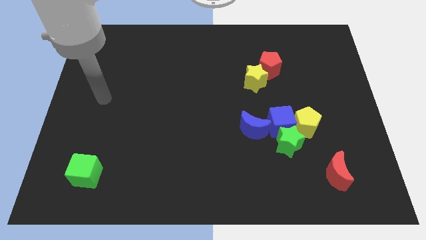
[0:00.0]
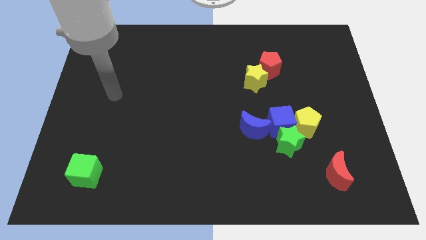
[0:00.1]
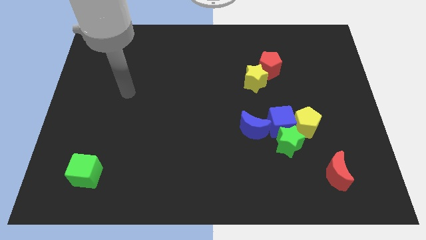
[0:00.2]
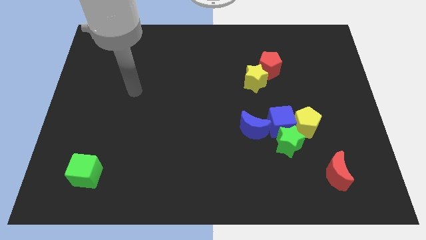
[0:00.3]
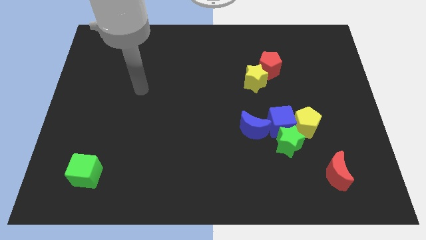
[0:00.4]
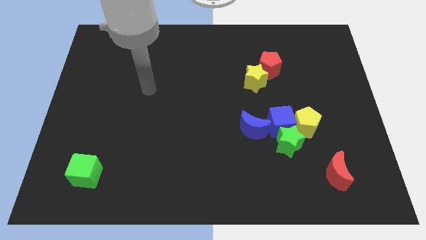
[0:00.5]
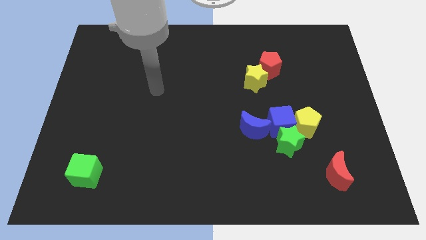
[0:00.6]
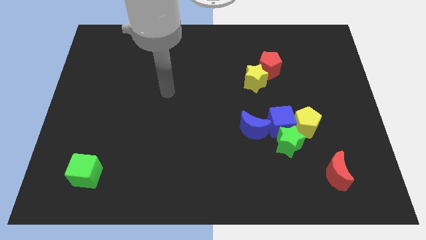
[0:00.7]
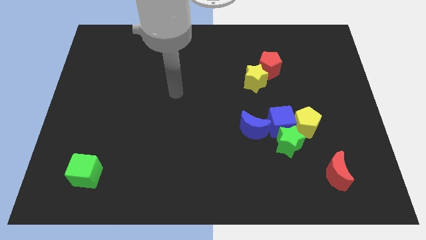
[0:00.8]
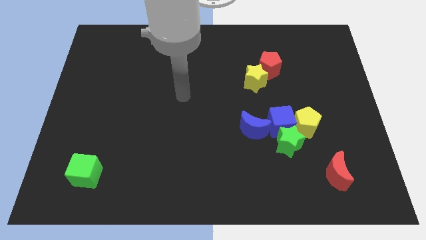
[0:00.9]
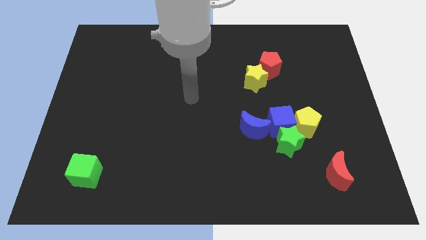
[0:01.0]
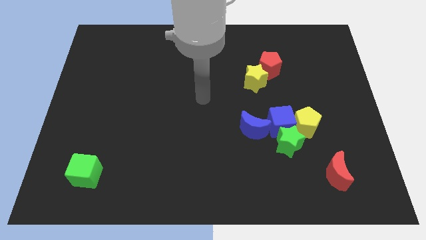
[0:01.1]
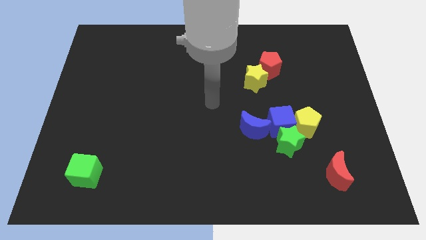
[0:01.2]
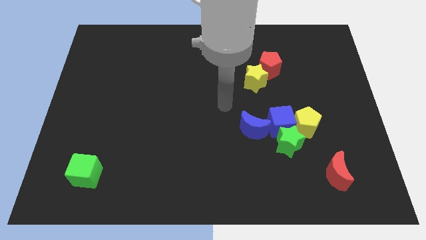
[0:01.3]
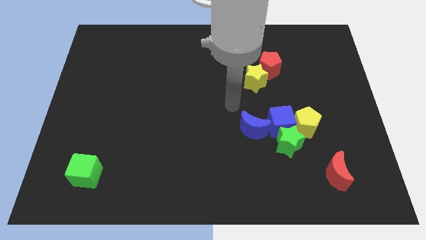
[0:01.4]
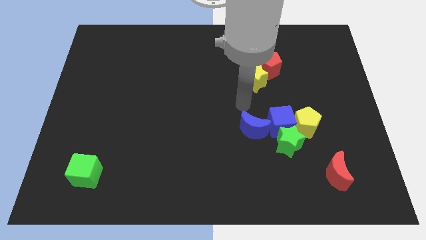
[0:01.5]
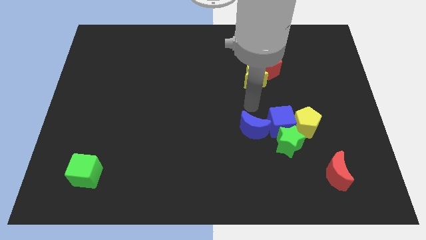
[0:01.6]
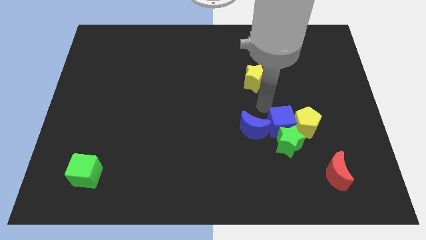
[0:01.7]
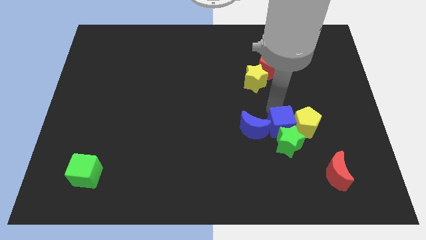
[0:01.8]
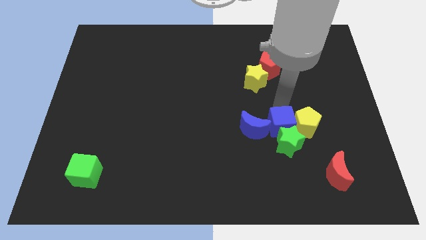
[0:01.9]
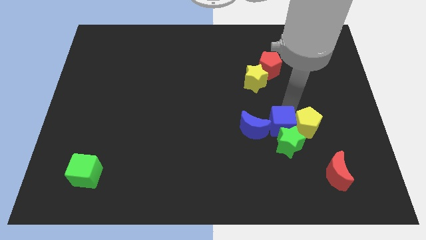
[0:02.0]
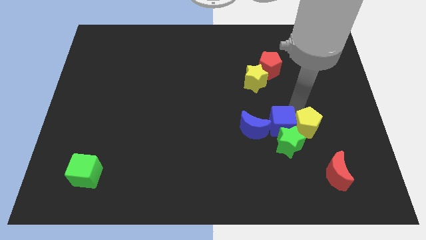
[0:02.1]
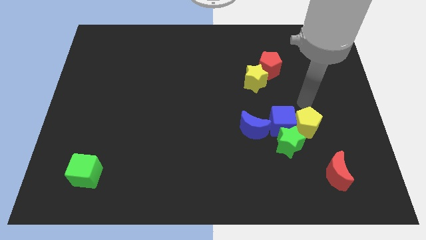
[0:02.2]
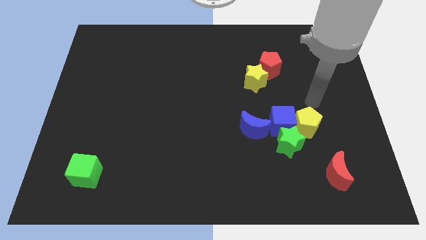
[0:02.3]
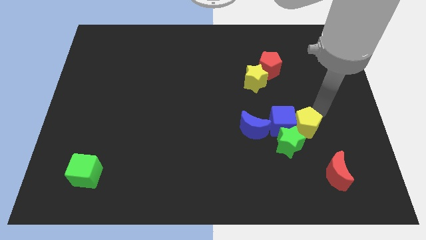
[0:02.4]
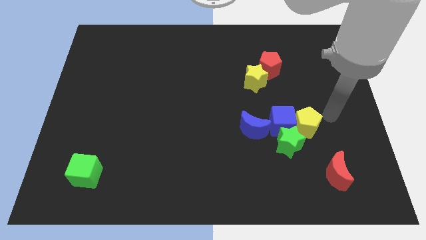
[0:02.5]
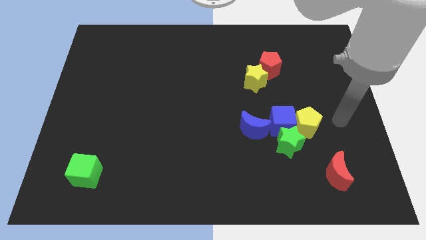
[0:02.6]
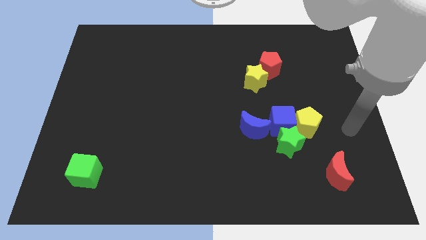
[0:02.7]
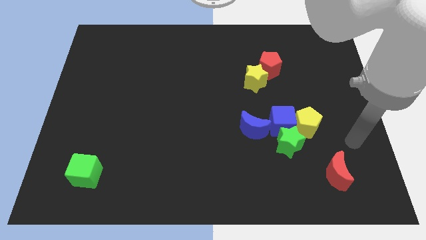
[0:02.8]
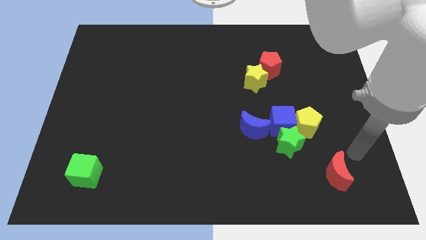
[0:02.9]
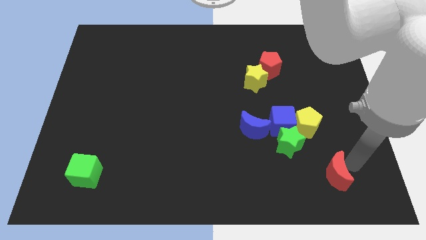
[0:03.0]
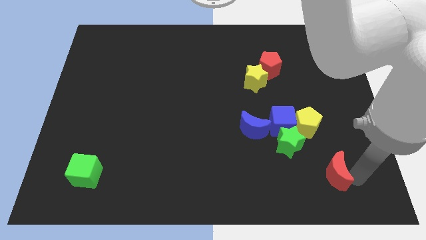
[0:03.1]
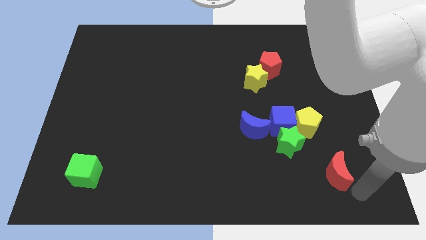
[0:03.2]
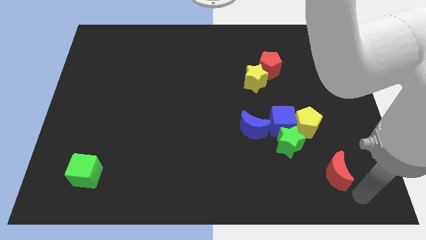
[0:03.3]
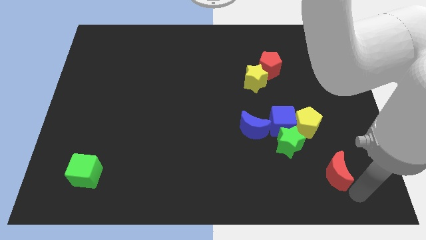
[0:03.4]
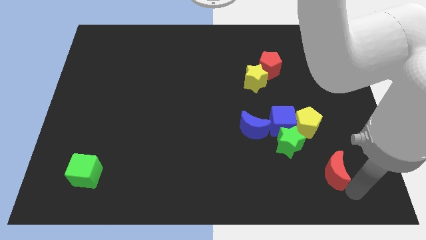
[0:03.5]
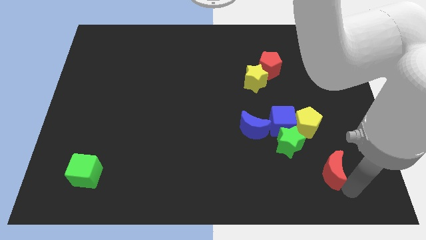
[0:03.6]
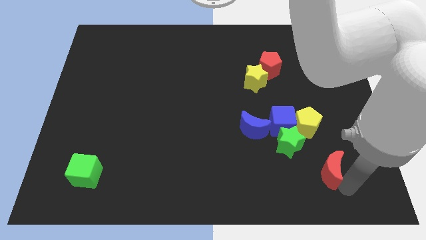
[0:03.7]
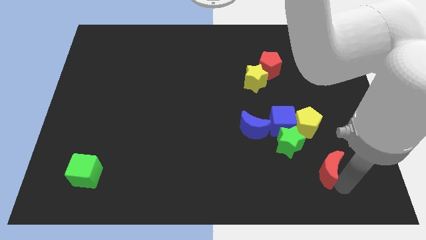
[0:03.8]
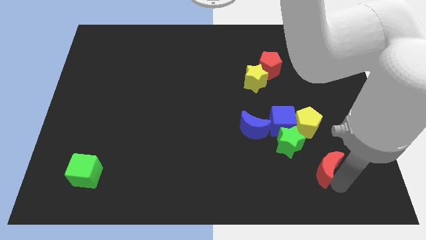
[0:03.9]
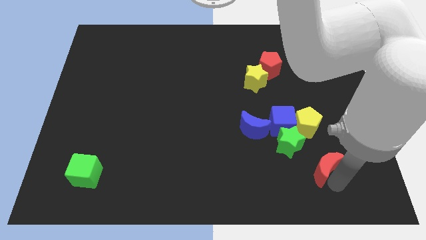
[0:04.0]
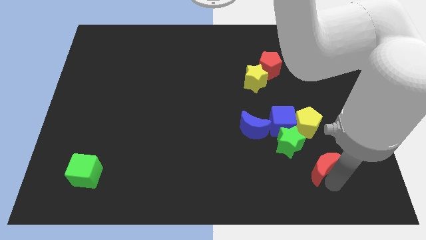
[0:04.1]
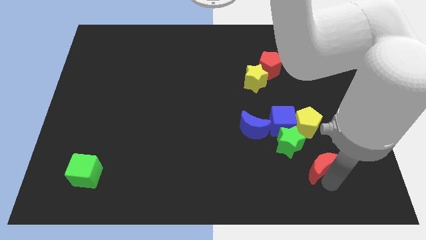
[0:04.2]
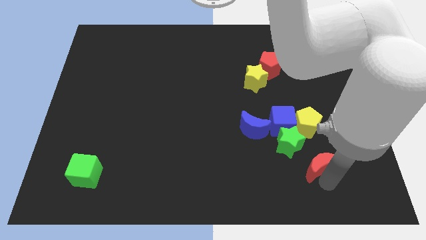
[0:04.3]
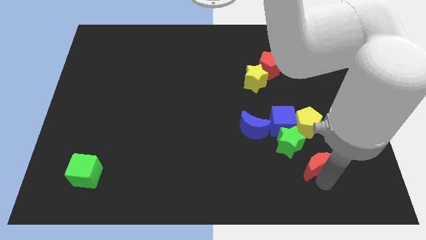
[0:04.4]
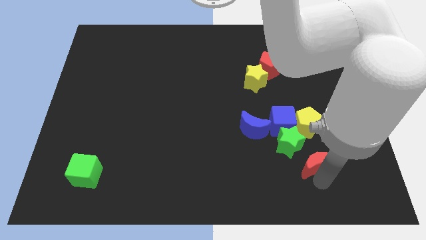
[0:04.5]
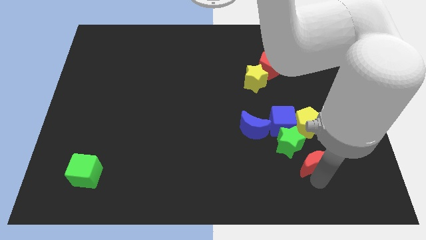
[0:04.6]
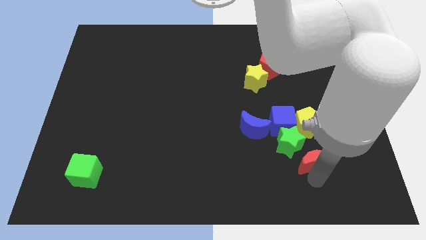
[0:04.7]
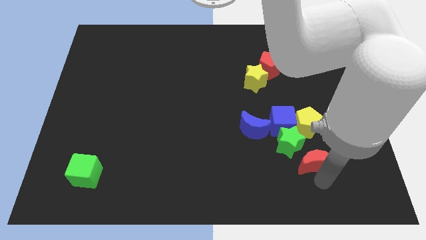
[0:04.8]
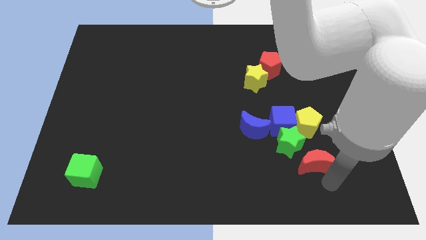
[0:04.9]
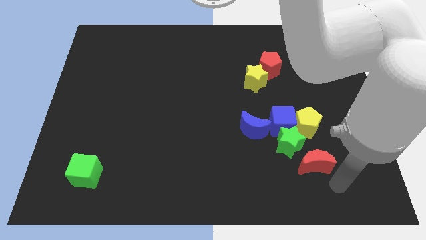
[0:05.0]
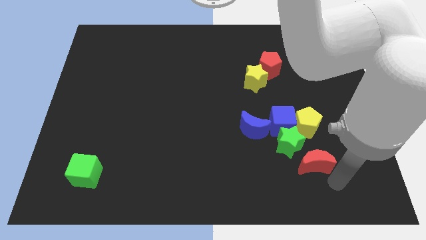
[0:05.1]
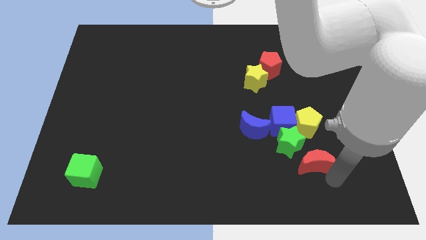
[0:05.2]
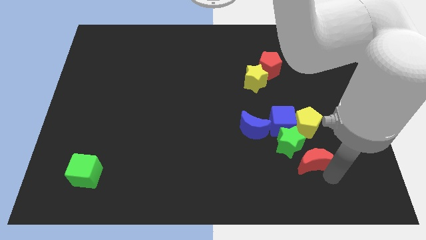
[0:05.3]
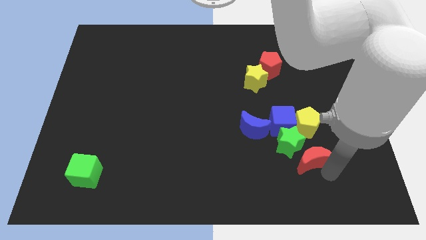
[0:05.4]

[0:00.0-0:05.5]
slide the red moon to the green star

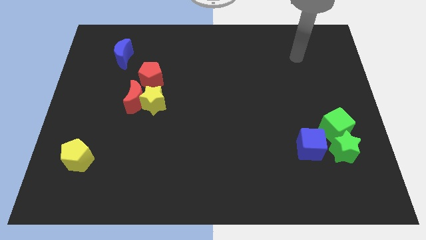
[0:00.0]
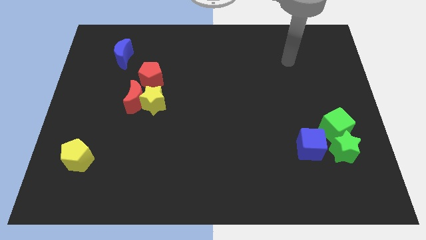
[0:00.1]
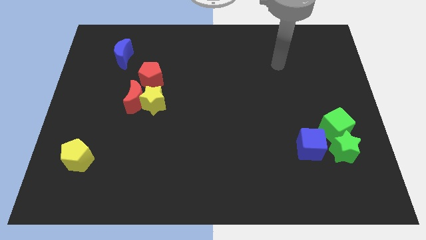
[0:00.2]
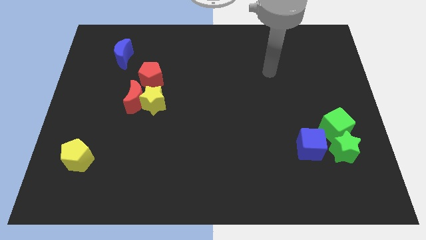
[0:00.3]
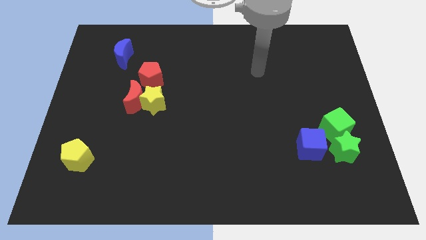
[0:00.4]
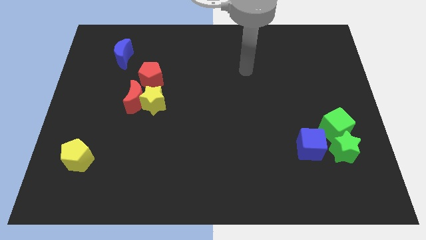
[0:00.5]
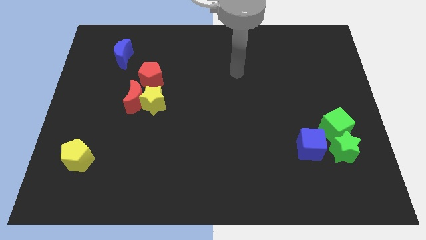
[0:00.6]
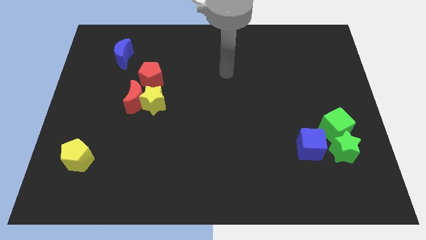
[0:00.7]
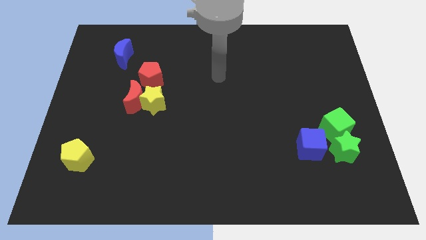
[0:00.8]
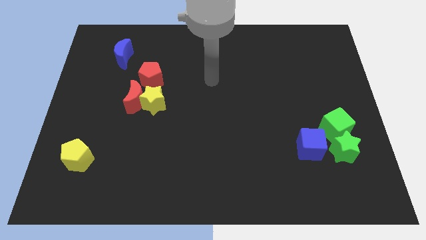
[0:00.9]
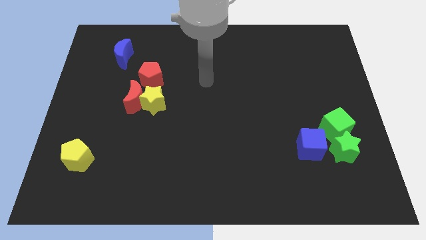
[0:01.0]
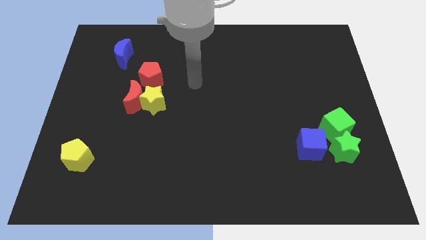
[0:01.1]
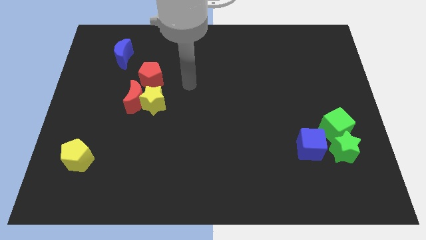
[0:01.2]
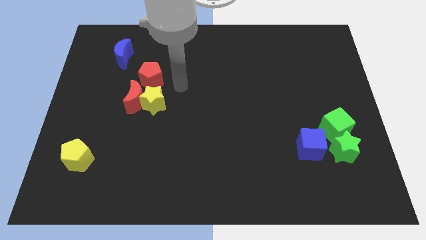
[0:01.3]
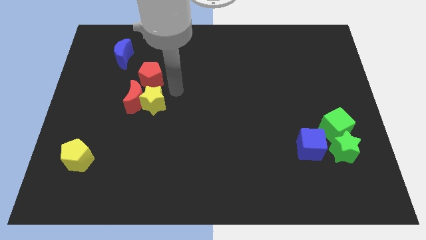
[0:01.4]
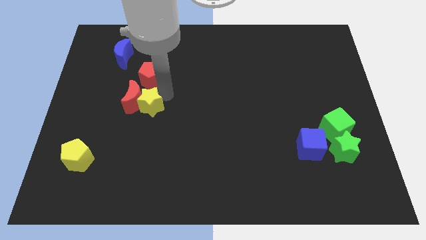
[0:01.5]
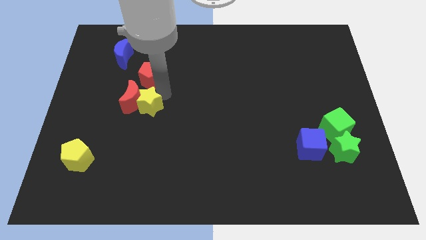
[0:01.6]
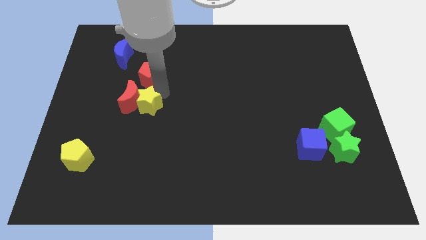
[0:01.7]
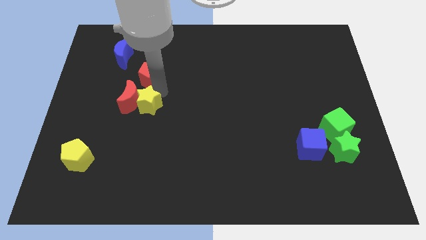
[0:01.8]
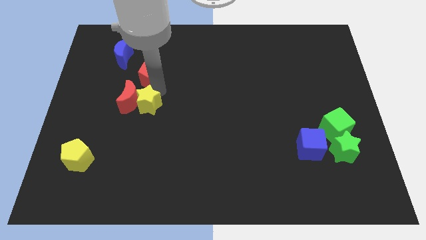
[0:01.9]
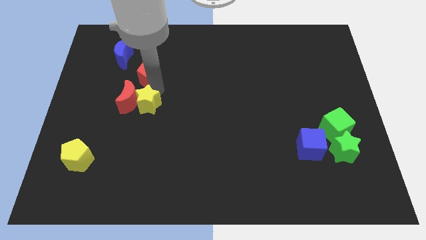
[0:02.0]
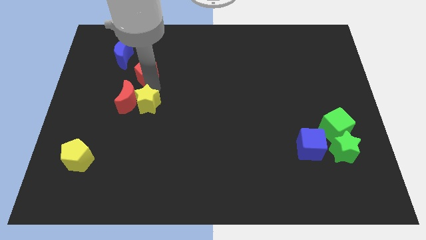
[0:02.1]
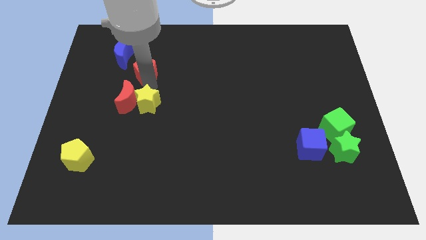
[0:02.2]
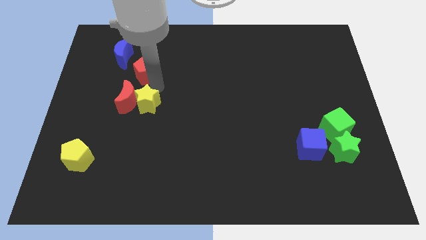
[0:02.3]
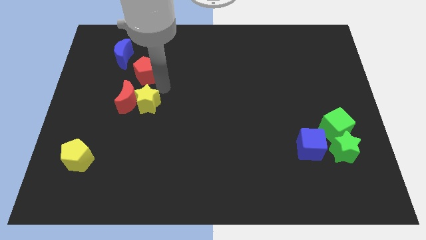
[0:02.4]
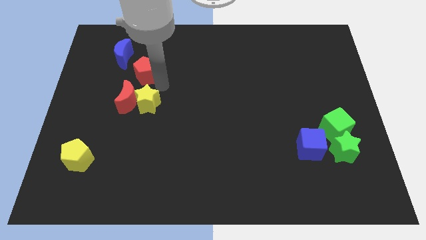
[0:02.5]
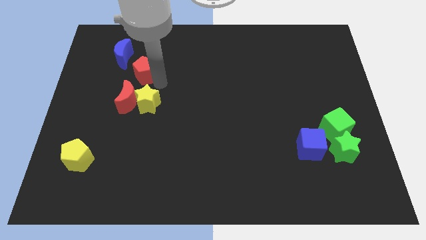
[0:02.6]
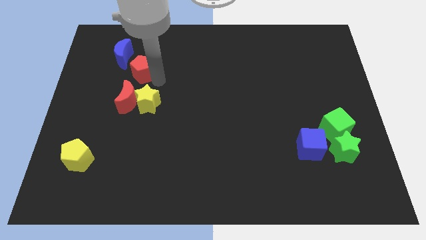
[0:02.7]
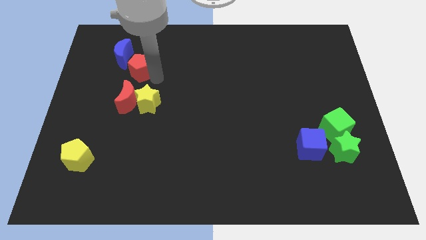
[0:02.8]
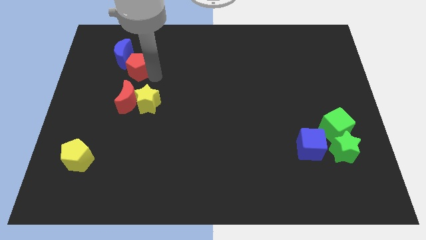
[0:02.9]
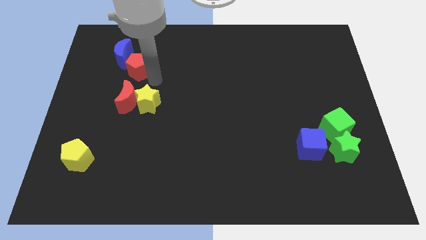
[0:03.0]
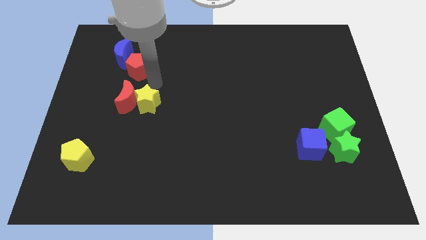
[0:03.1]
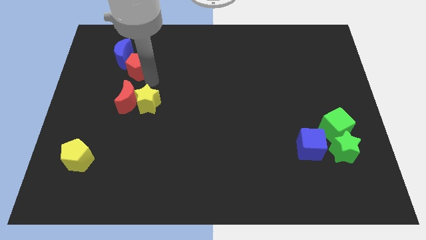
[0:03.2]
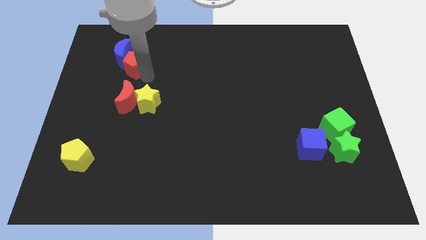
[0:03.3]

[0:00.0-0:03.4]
slide the red pentagon towards the blue moon
